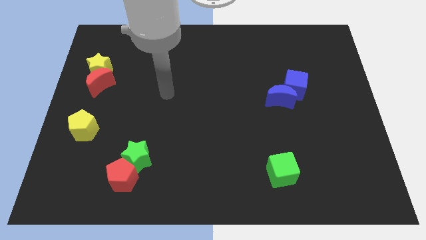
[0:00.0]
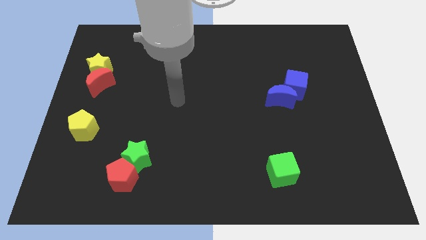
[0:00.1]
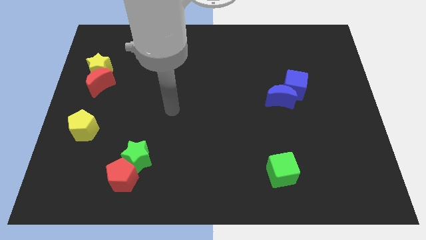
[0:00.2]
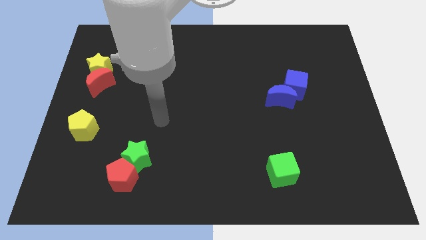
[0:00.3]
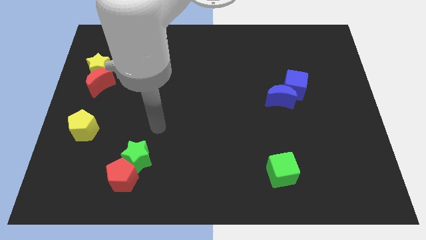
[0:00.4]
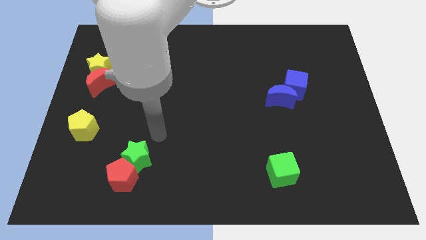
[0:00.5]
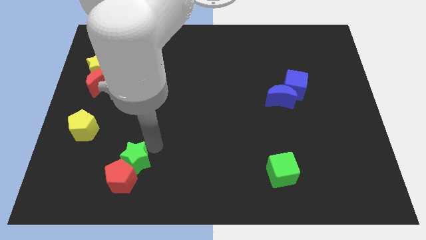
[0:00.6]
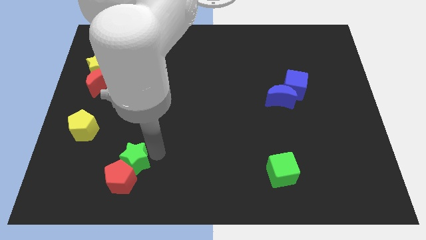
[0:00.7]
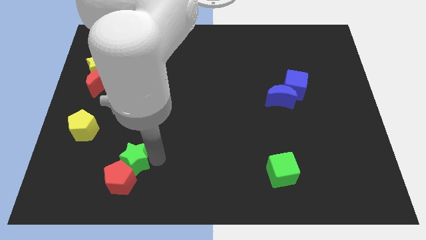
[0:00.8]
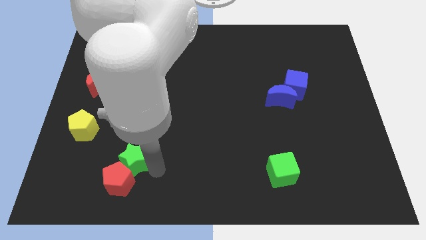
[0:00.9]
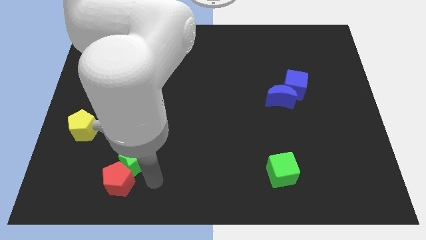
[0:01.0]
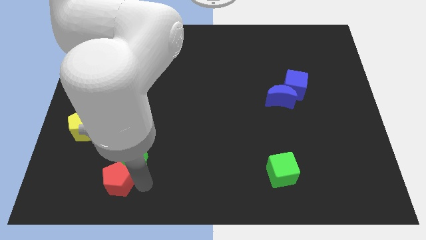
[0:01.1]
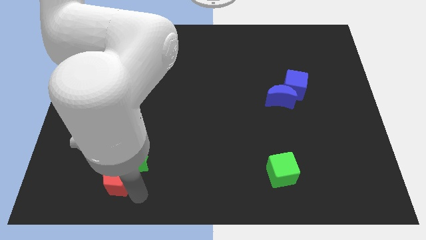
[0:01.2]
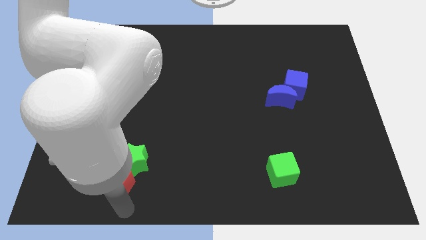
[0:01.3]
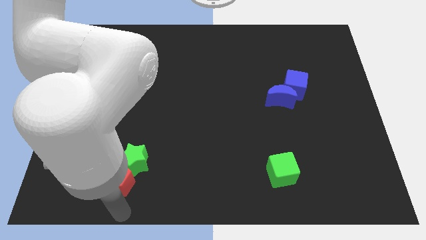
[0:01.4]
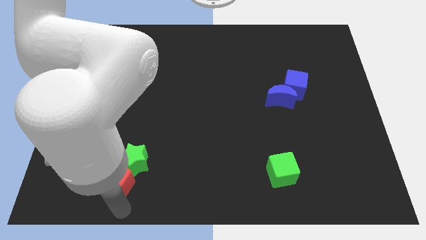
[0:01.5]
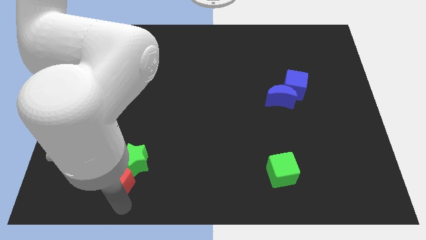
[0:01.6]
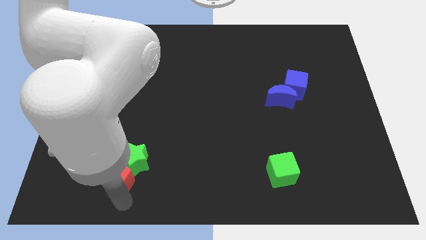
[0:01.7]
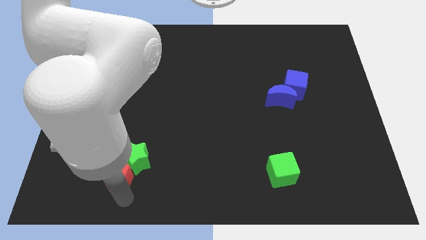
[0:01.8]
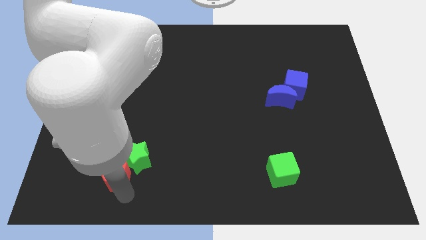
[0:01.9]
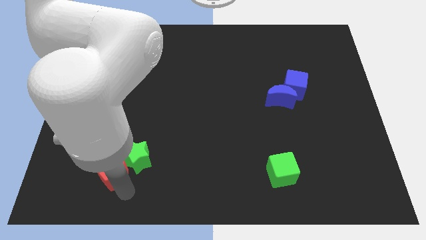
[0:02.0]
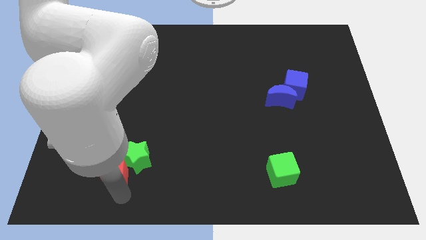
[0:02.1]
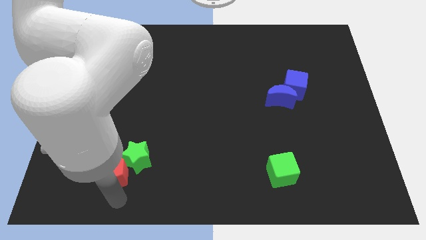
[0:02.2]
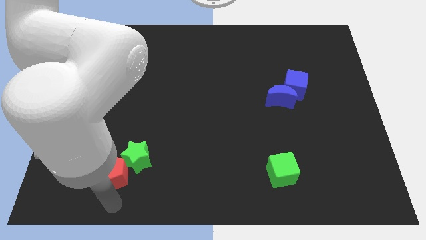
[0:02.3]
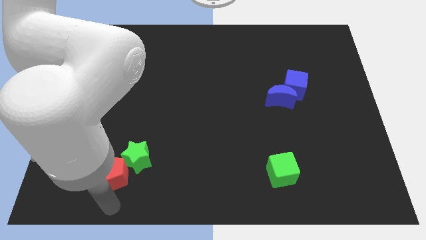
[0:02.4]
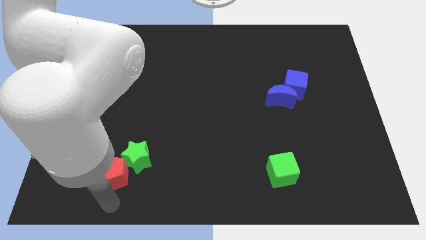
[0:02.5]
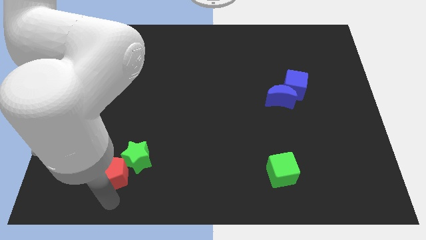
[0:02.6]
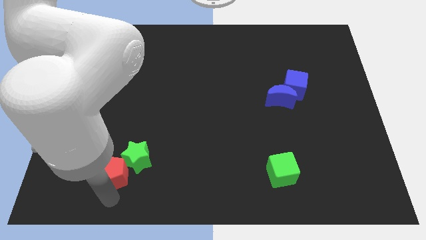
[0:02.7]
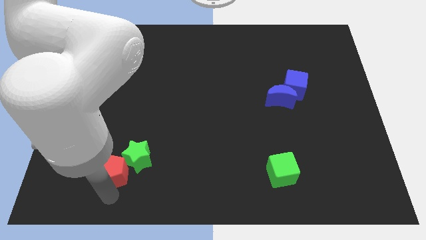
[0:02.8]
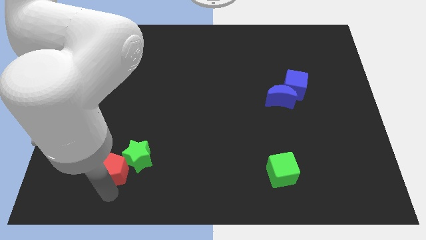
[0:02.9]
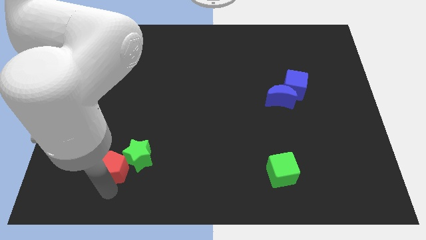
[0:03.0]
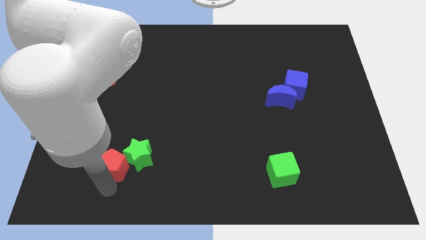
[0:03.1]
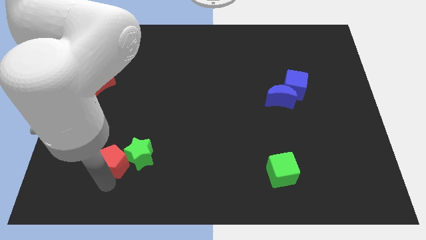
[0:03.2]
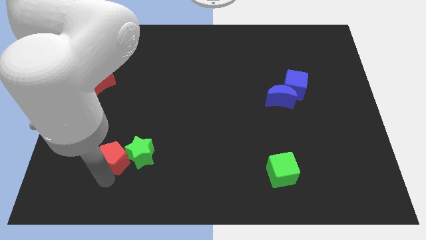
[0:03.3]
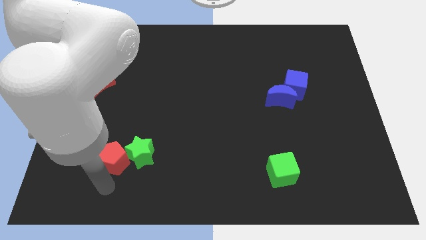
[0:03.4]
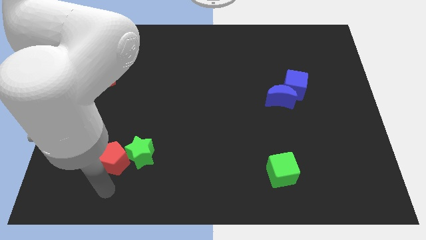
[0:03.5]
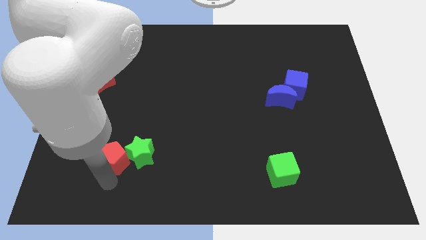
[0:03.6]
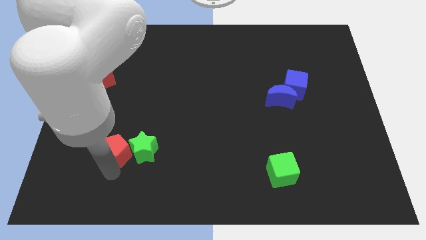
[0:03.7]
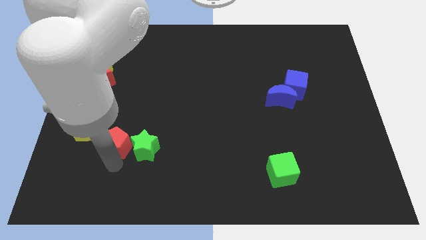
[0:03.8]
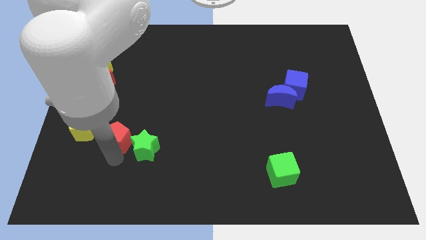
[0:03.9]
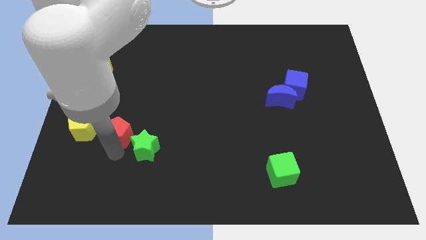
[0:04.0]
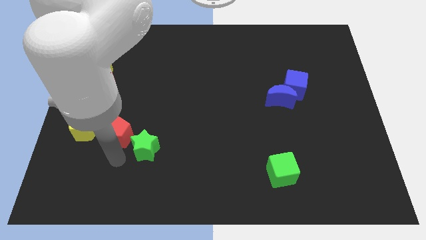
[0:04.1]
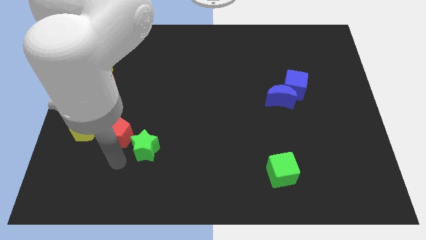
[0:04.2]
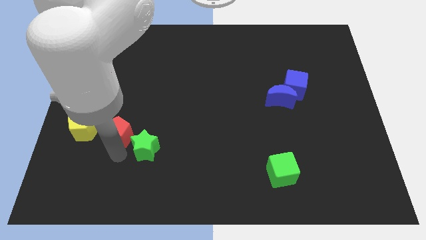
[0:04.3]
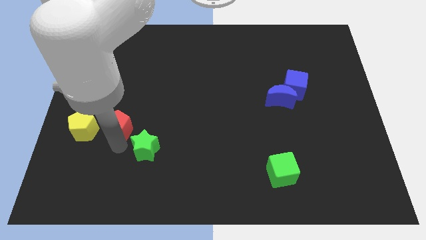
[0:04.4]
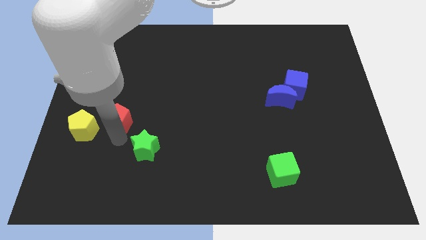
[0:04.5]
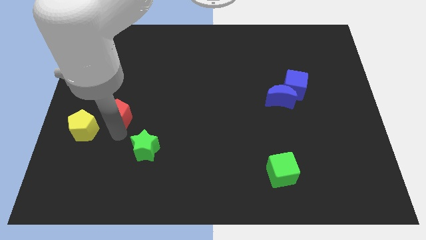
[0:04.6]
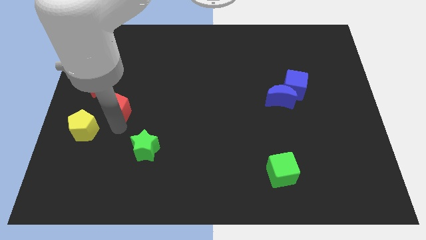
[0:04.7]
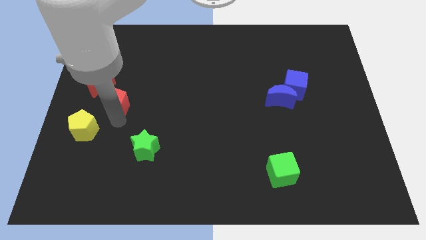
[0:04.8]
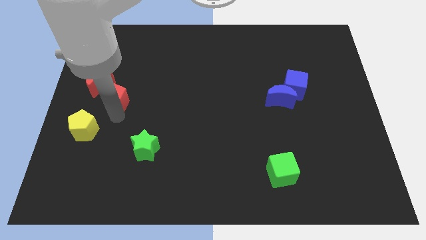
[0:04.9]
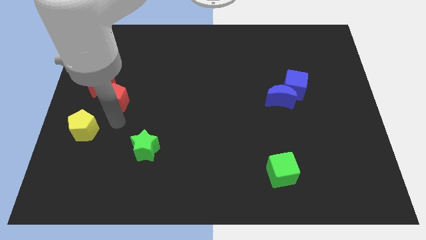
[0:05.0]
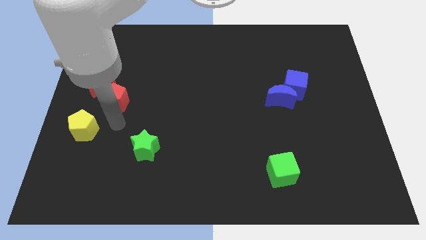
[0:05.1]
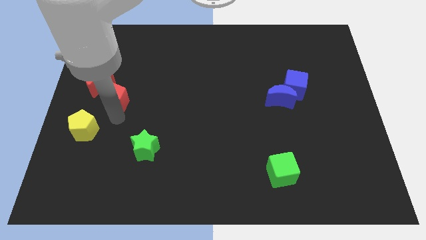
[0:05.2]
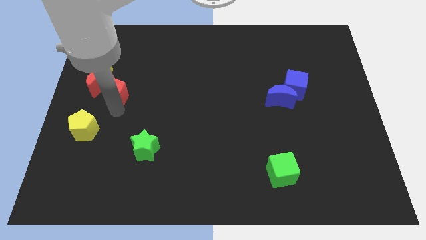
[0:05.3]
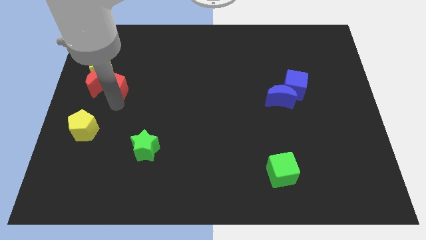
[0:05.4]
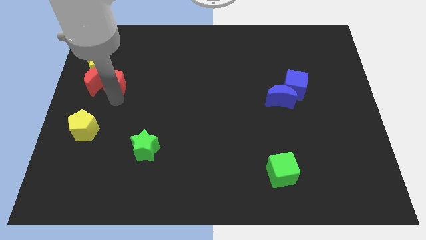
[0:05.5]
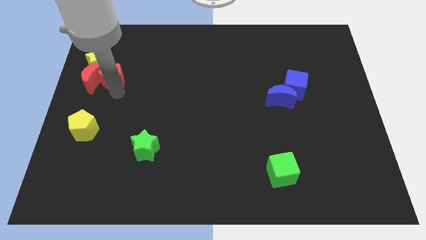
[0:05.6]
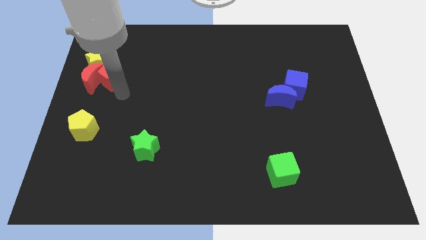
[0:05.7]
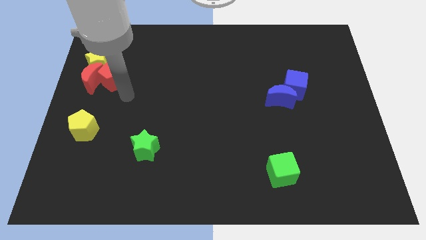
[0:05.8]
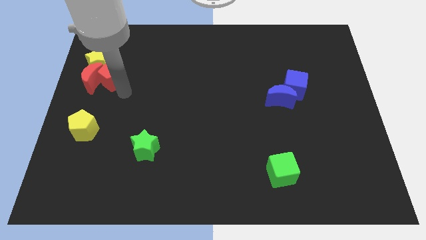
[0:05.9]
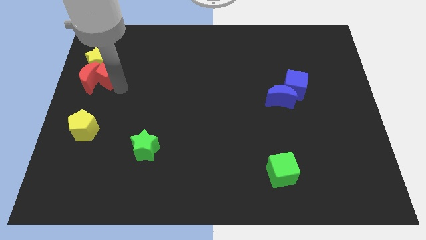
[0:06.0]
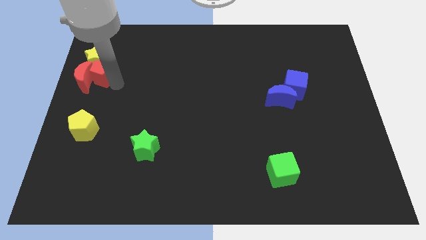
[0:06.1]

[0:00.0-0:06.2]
slide the red pentagon next to the yellow star
